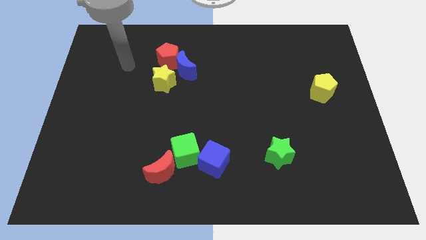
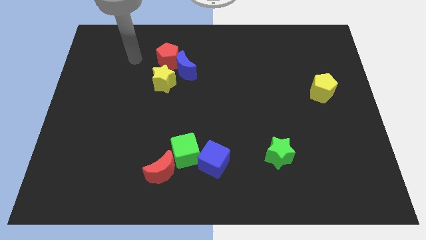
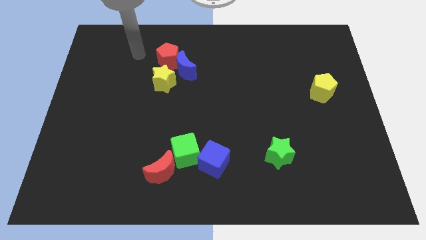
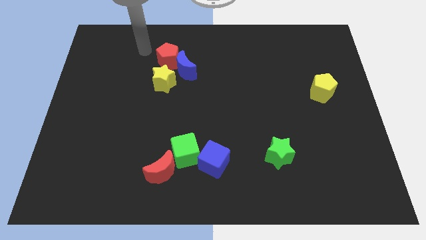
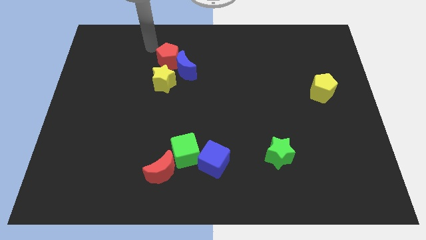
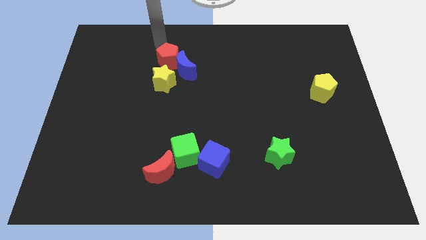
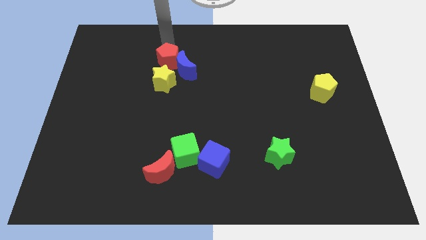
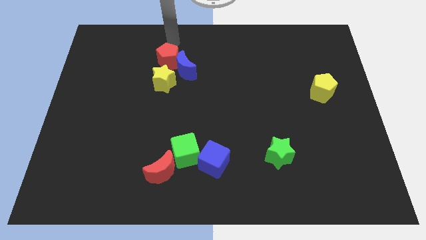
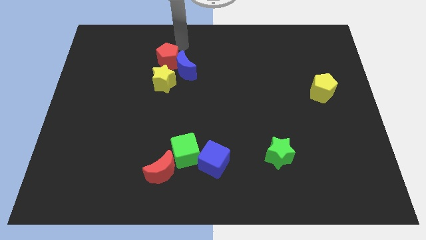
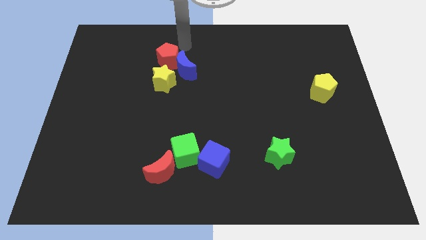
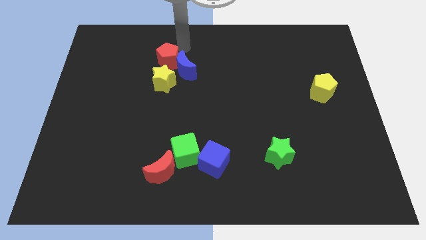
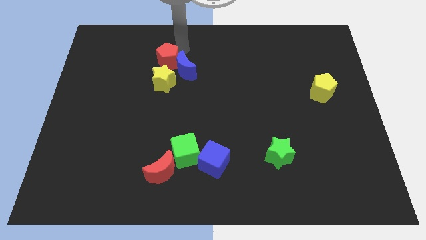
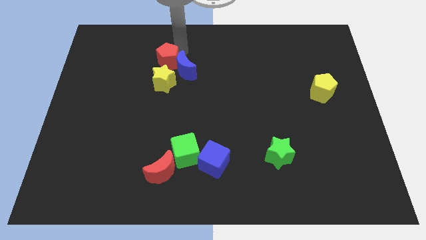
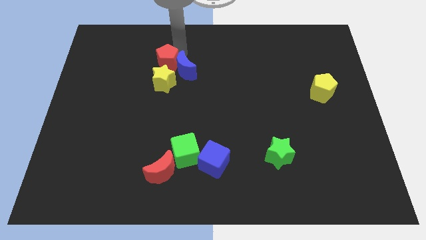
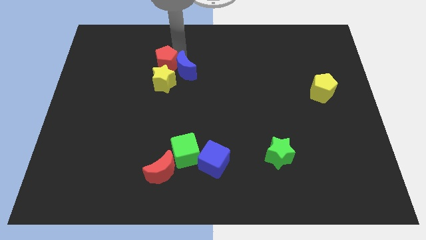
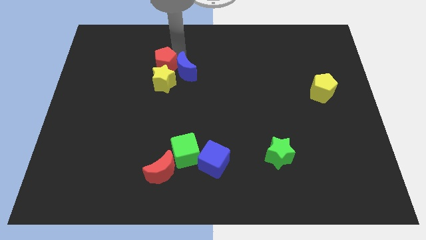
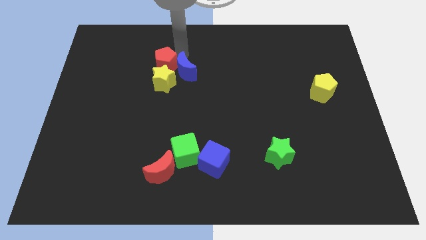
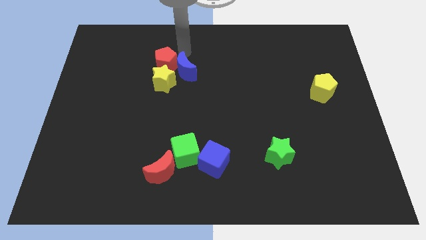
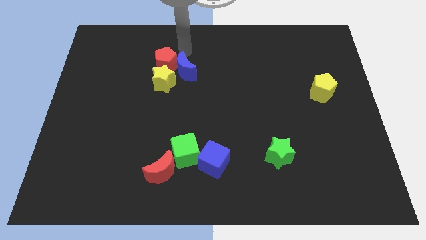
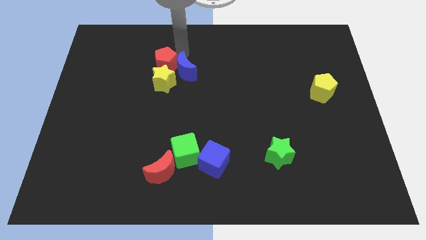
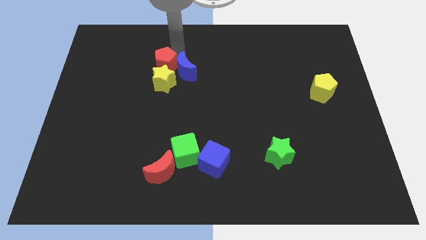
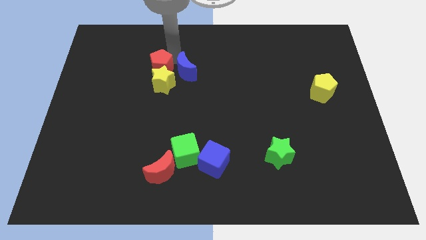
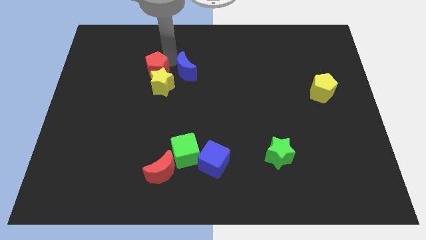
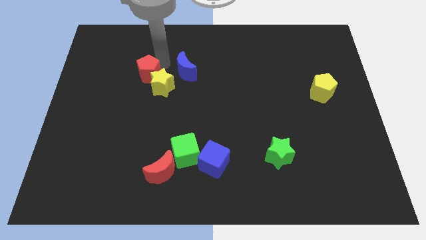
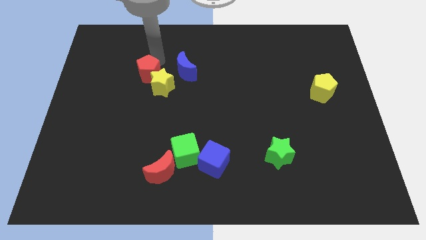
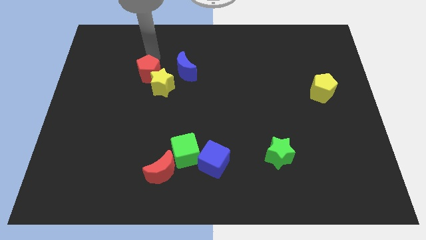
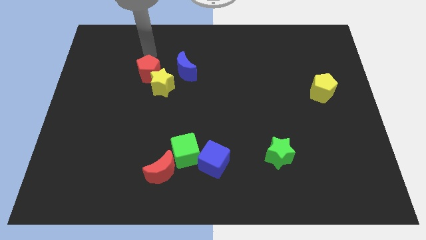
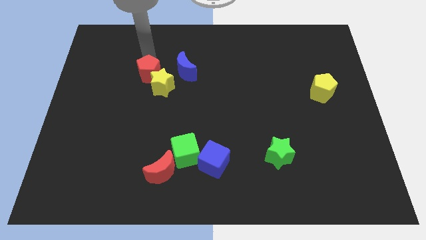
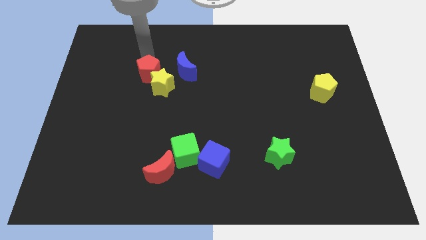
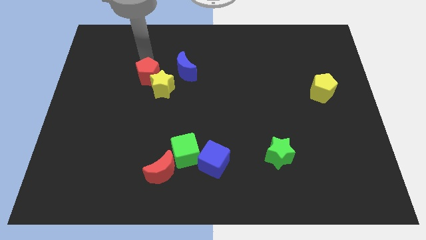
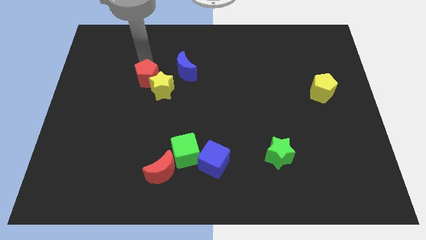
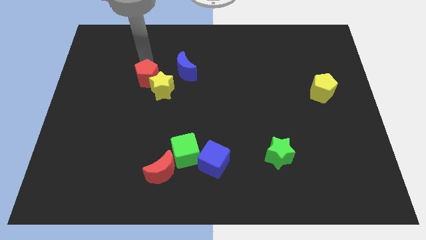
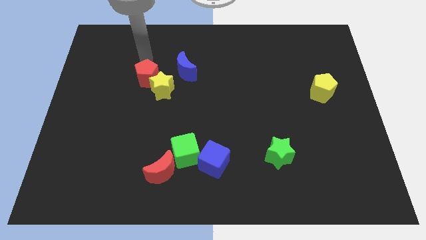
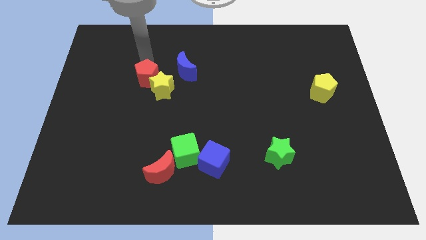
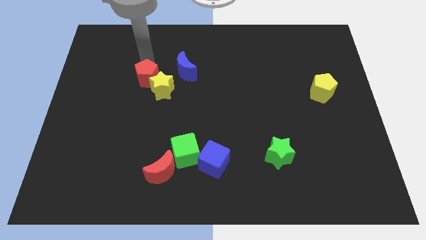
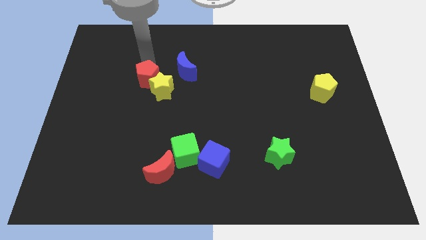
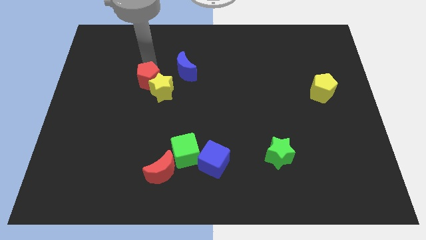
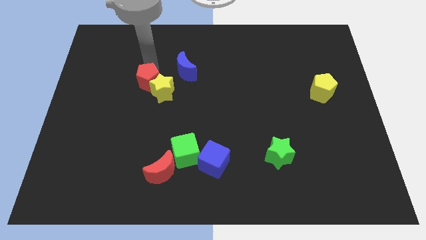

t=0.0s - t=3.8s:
move the red pentagon downwards a little

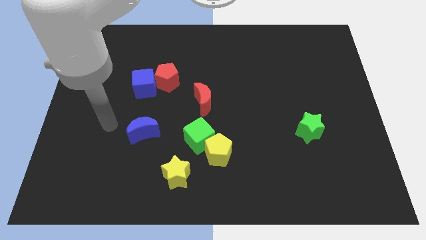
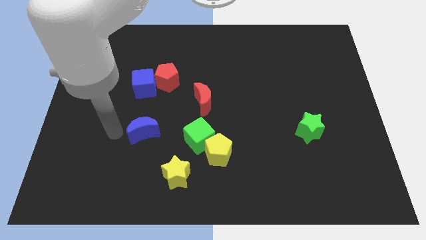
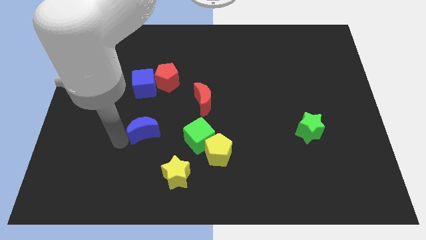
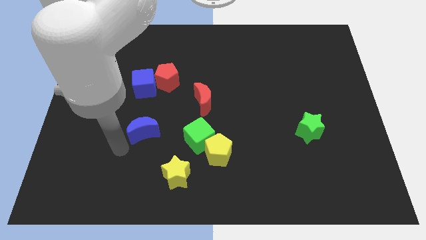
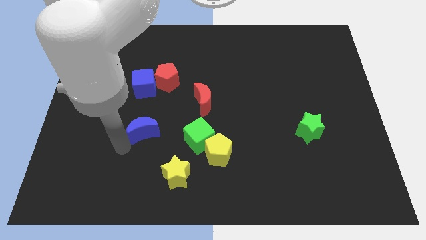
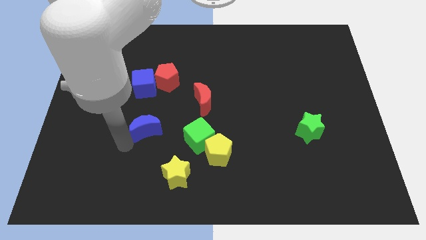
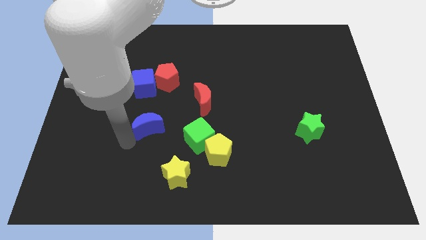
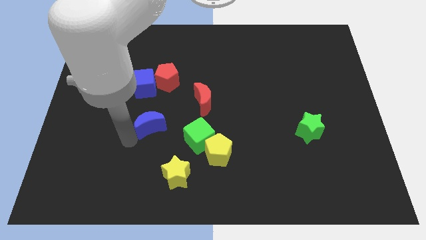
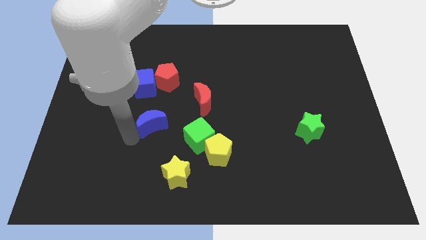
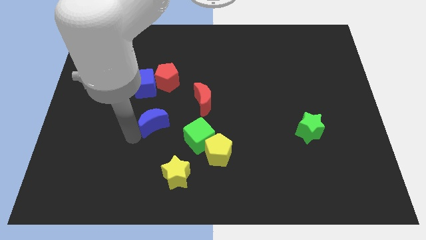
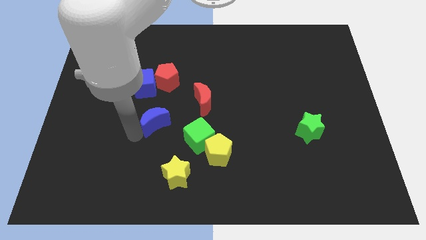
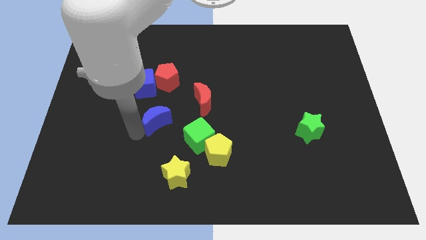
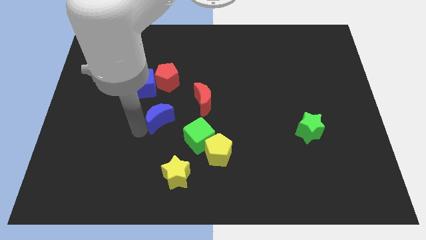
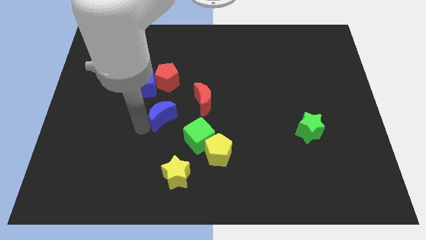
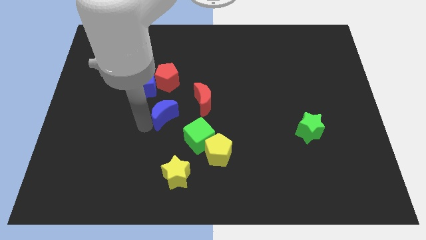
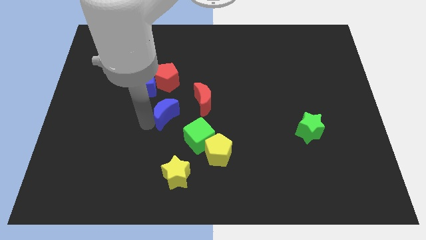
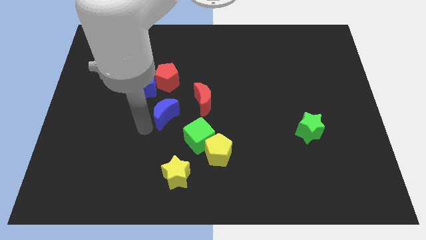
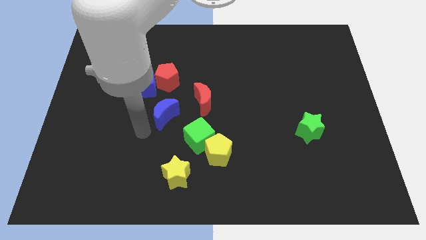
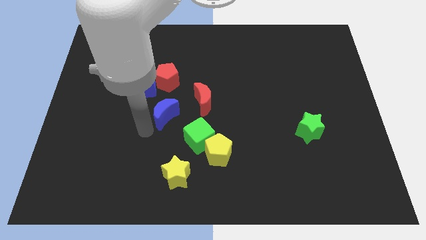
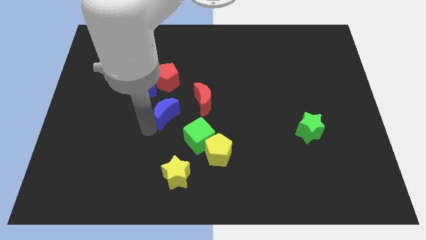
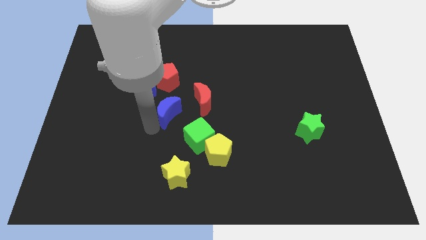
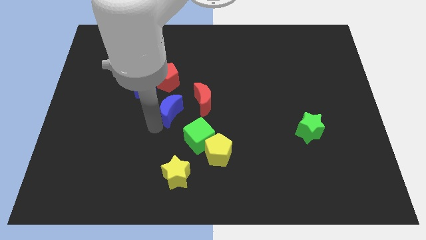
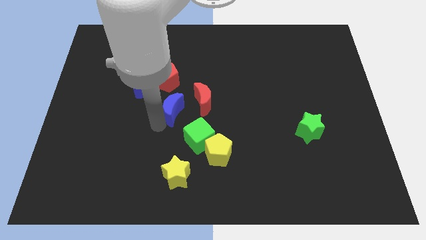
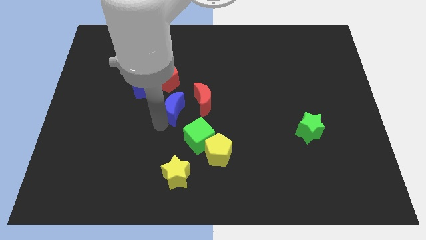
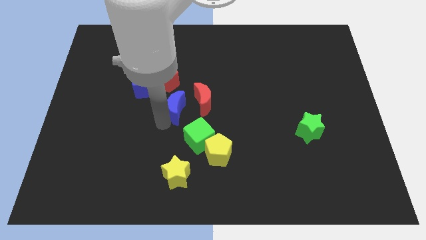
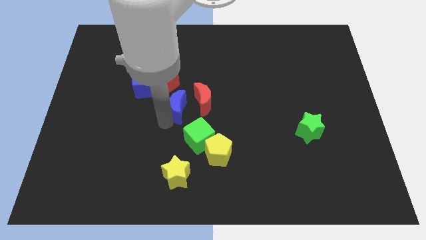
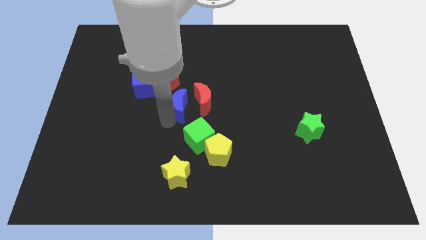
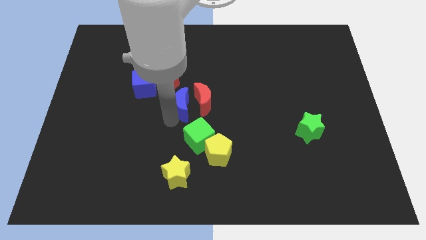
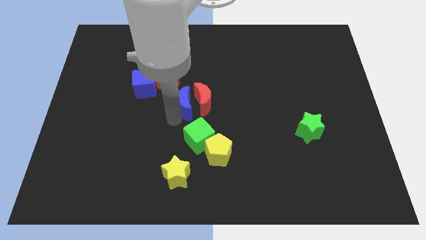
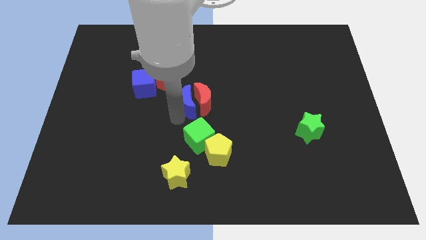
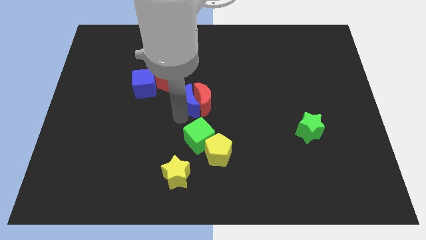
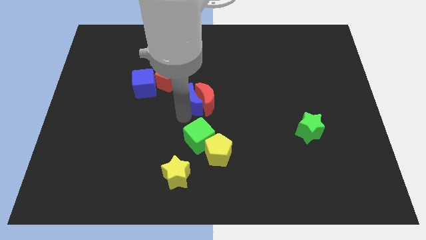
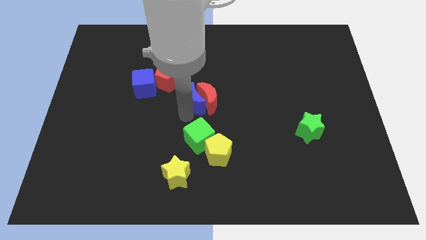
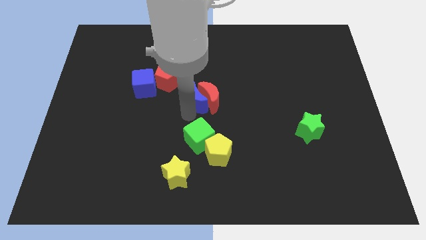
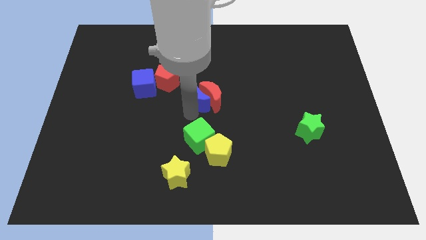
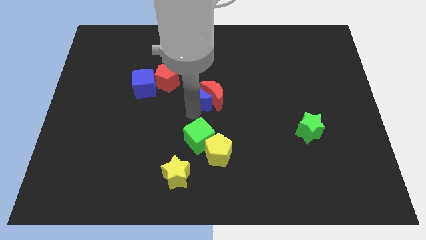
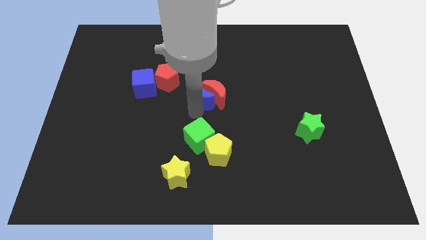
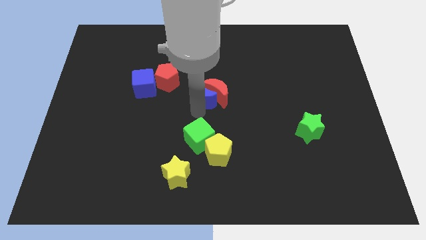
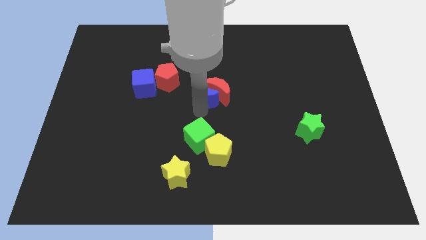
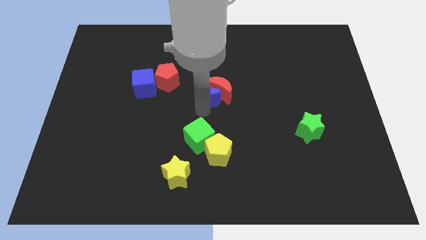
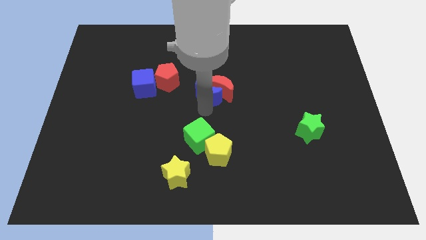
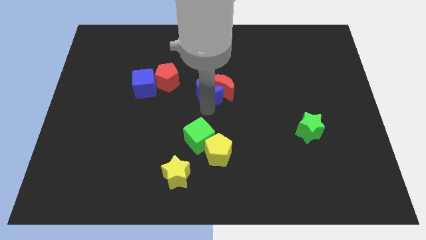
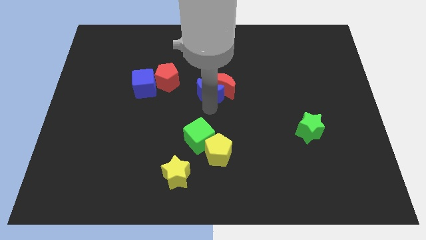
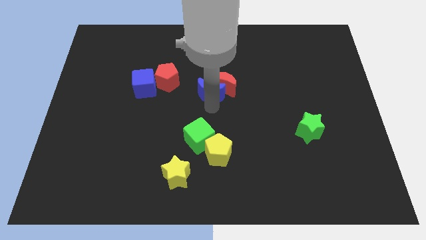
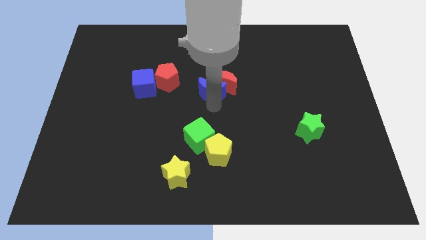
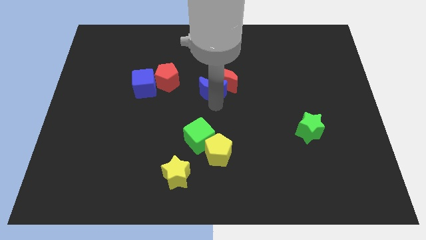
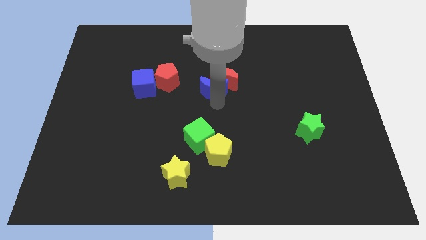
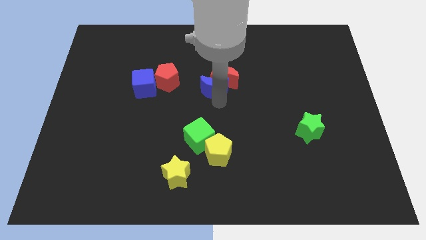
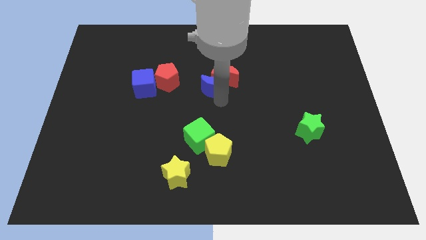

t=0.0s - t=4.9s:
push the blue moon upwards and to the right
